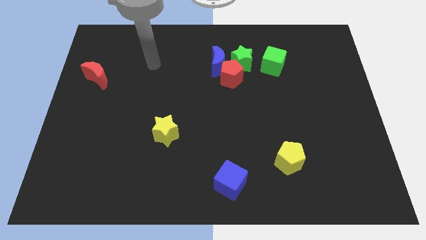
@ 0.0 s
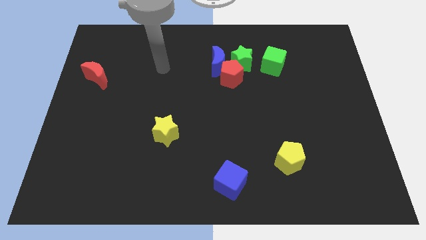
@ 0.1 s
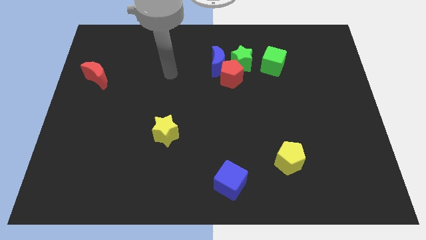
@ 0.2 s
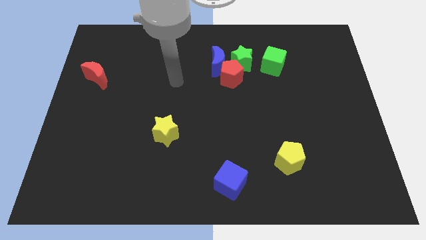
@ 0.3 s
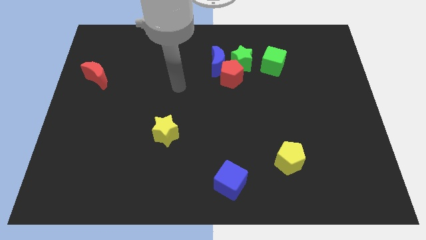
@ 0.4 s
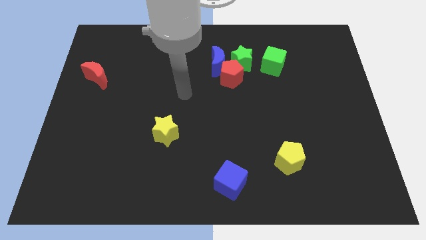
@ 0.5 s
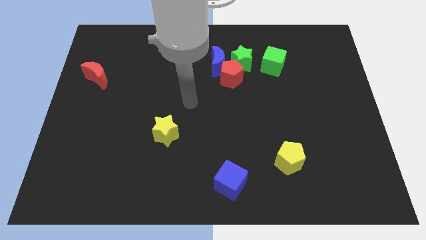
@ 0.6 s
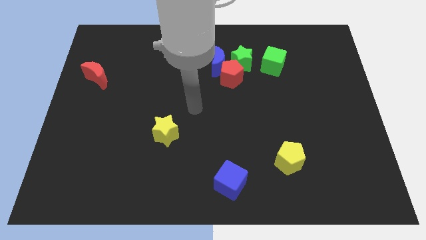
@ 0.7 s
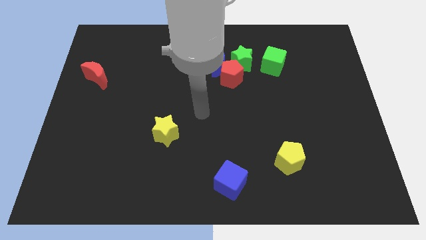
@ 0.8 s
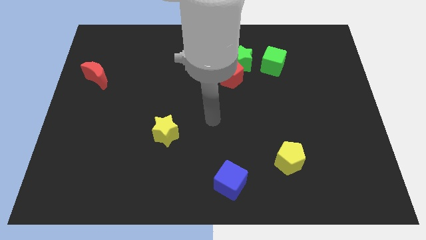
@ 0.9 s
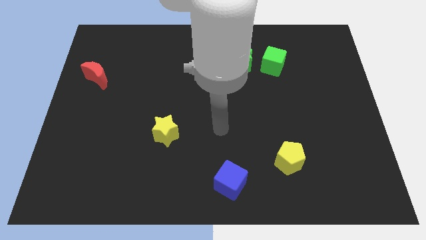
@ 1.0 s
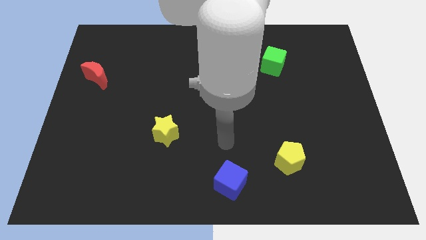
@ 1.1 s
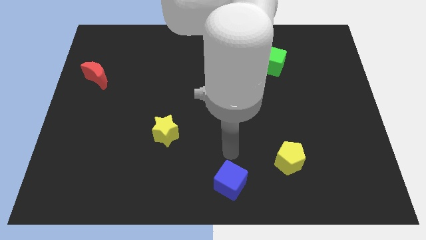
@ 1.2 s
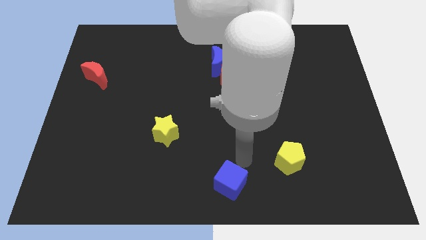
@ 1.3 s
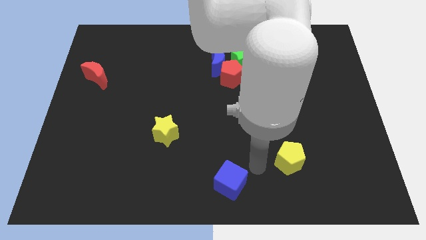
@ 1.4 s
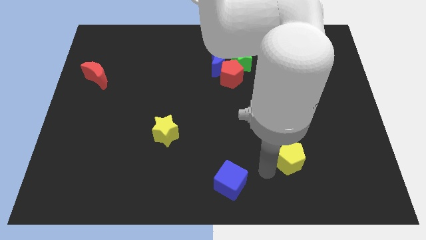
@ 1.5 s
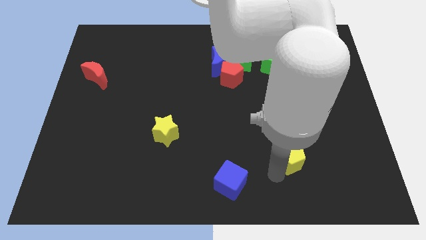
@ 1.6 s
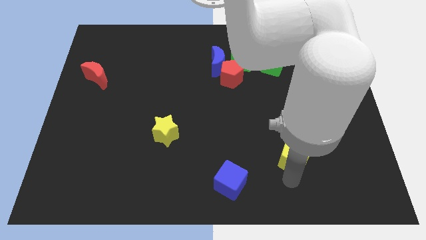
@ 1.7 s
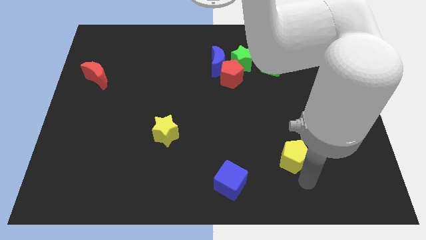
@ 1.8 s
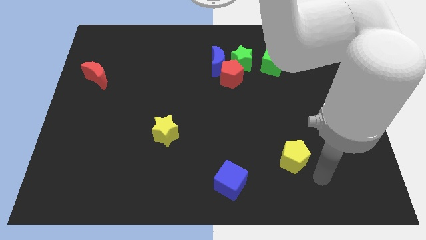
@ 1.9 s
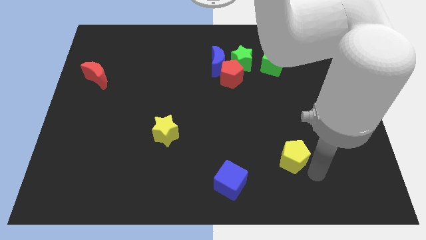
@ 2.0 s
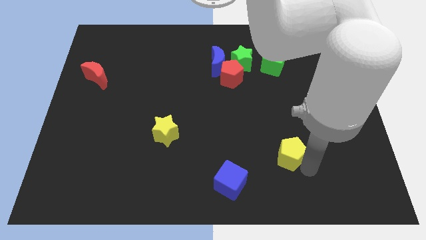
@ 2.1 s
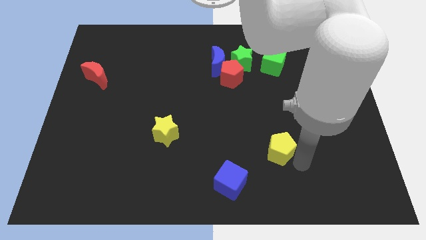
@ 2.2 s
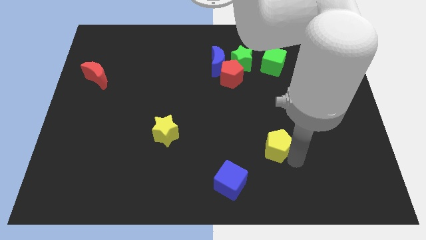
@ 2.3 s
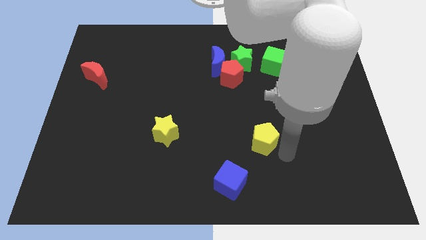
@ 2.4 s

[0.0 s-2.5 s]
slide the yellow pentagon a little diagonally upwards and left

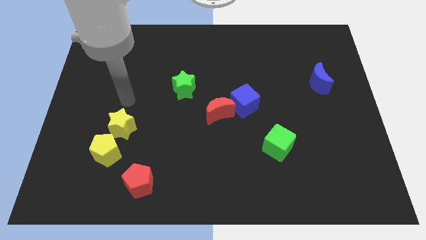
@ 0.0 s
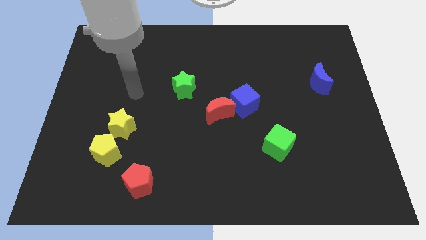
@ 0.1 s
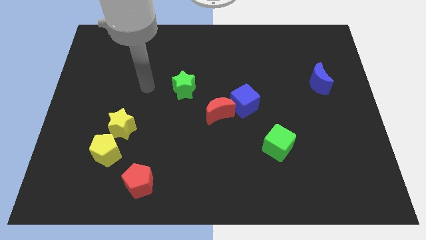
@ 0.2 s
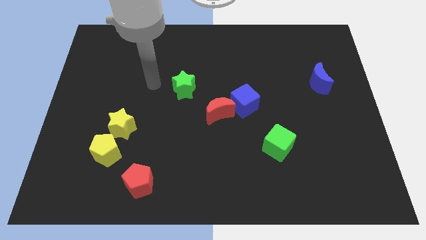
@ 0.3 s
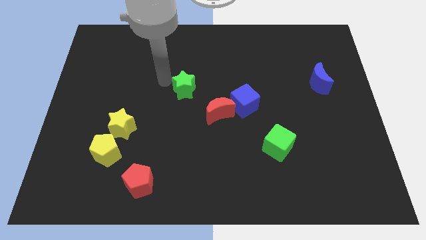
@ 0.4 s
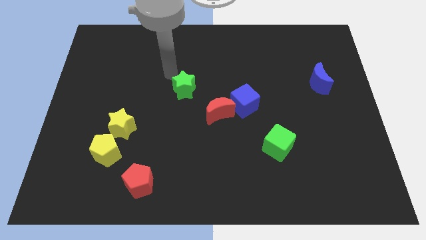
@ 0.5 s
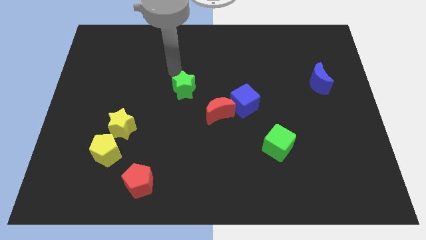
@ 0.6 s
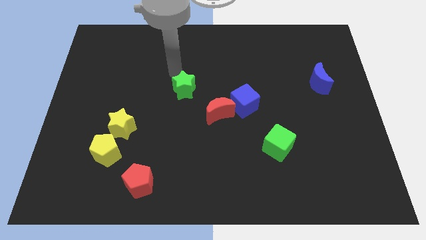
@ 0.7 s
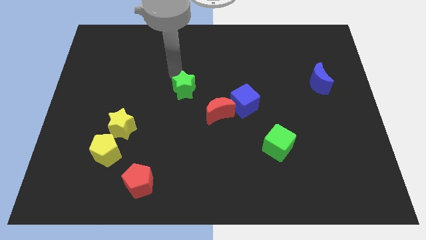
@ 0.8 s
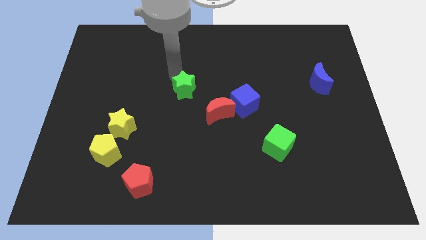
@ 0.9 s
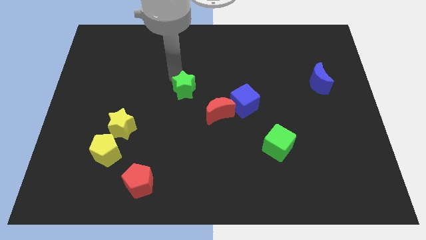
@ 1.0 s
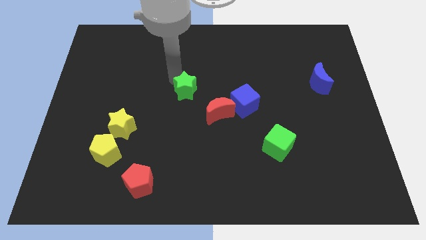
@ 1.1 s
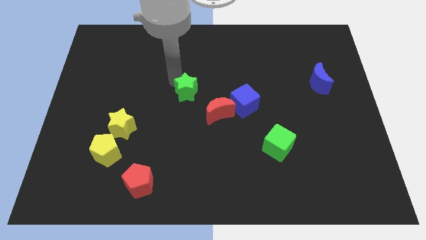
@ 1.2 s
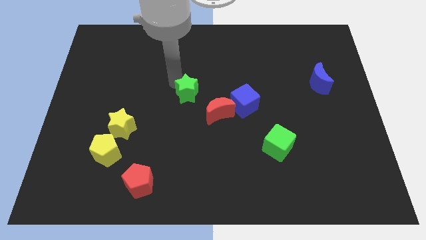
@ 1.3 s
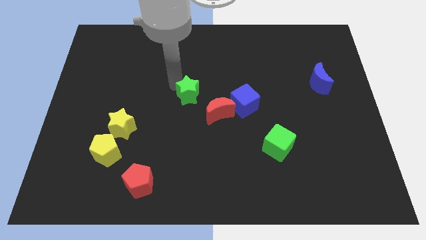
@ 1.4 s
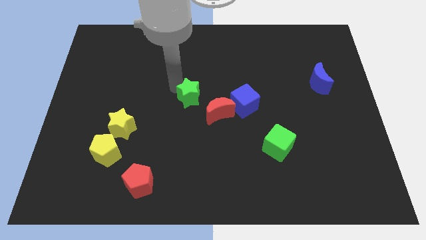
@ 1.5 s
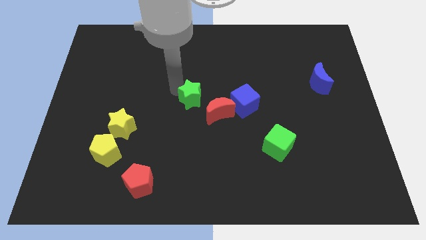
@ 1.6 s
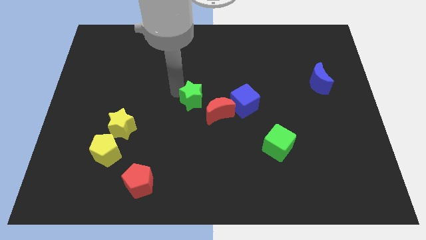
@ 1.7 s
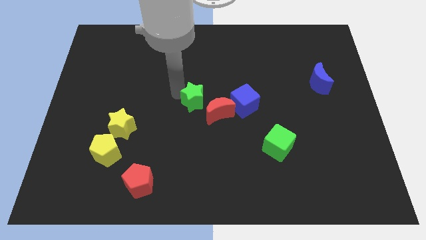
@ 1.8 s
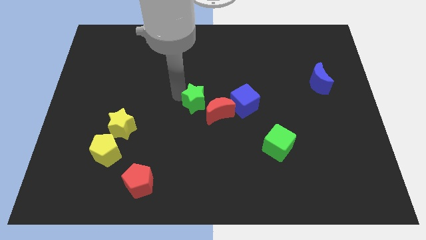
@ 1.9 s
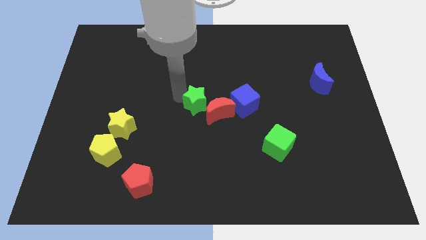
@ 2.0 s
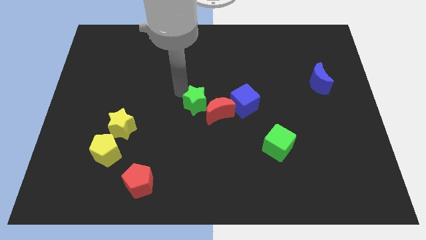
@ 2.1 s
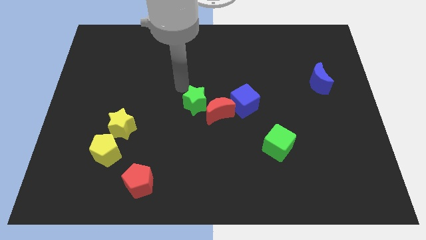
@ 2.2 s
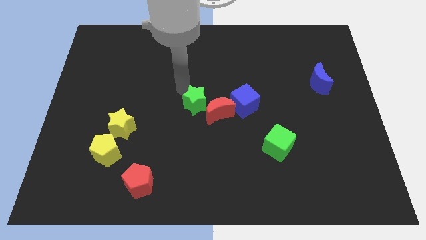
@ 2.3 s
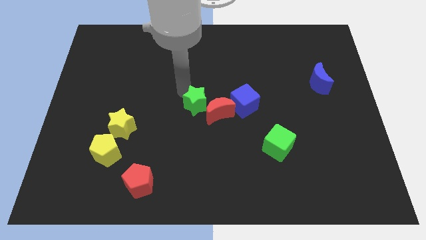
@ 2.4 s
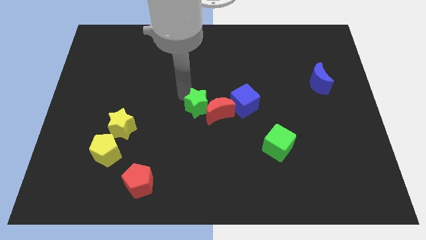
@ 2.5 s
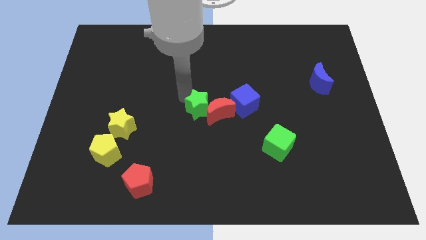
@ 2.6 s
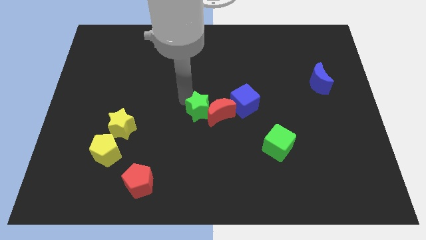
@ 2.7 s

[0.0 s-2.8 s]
push the green star a little downwards and to the right

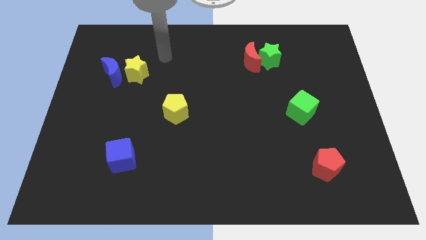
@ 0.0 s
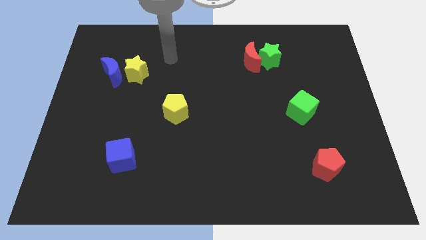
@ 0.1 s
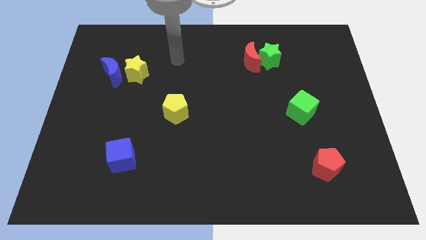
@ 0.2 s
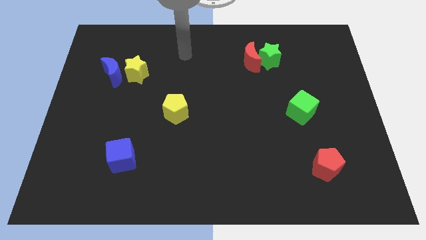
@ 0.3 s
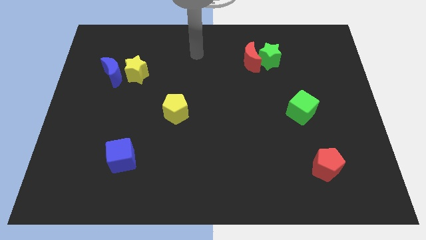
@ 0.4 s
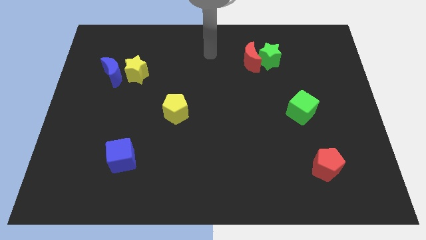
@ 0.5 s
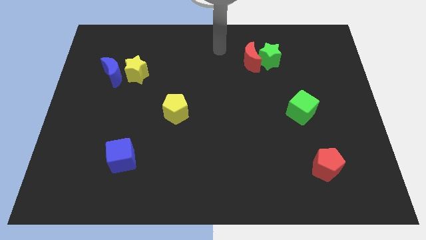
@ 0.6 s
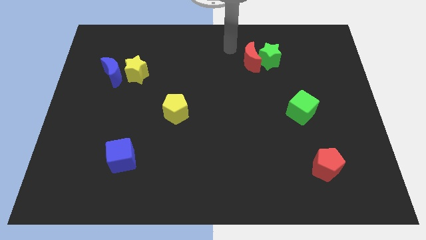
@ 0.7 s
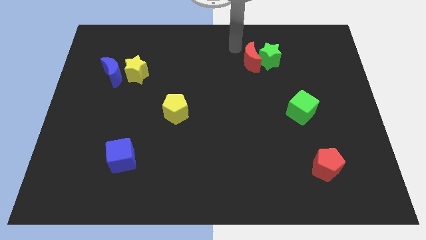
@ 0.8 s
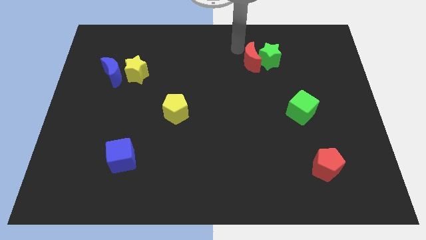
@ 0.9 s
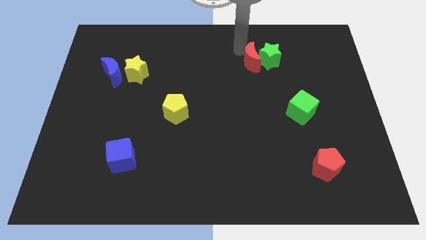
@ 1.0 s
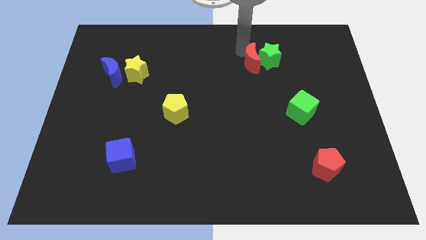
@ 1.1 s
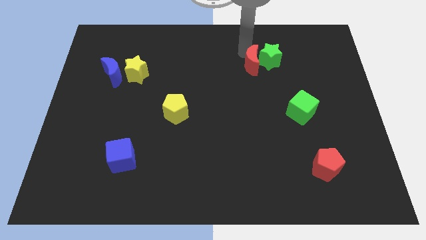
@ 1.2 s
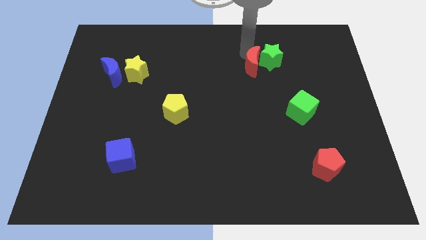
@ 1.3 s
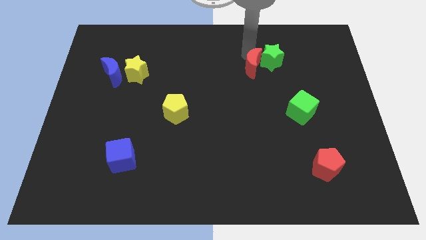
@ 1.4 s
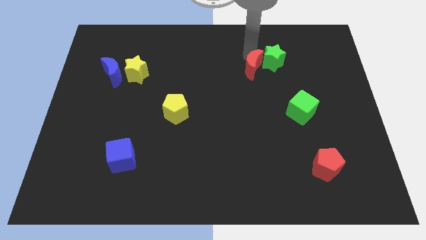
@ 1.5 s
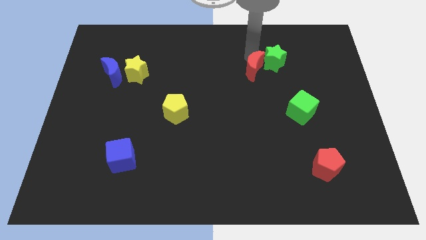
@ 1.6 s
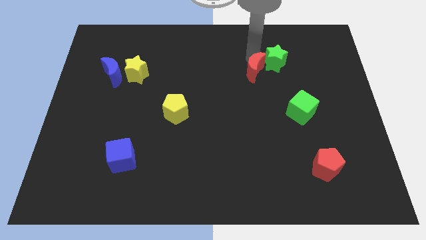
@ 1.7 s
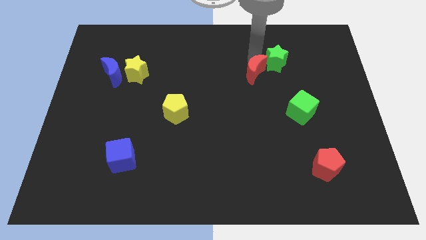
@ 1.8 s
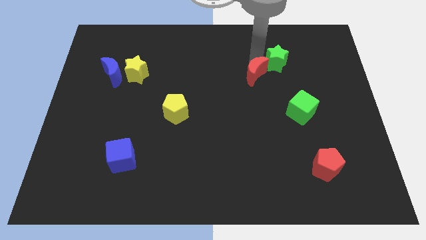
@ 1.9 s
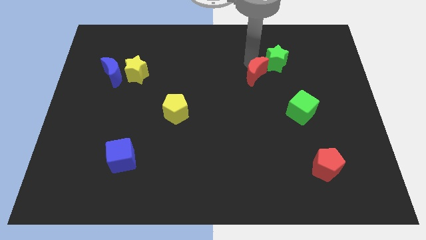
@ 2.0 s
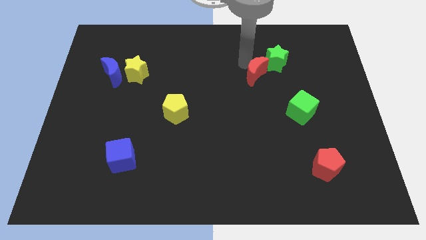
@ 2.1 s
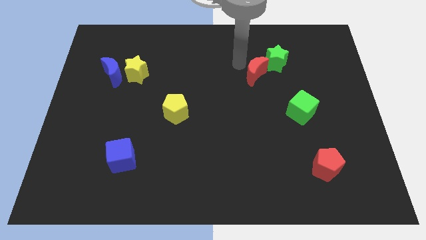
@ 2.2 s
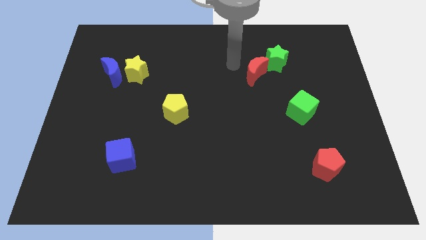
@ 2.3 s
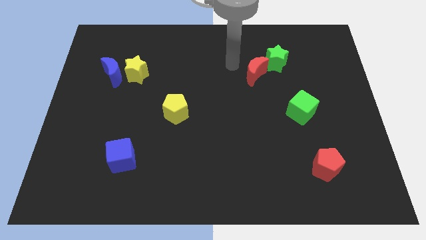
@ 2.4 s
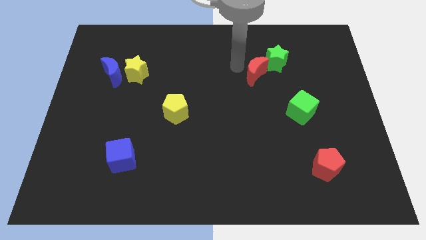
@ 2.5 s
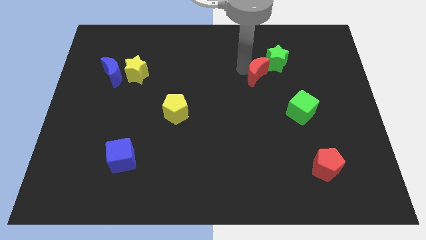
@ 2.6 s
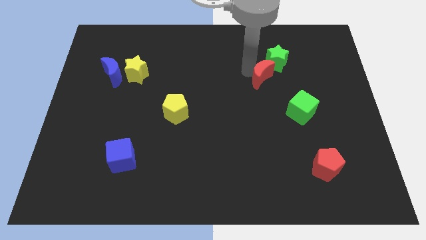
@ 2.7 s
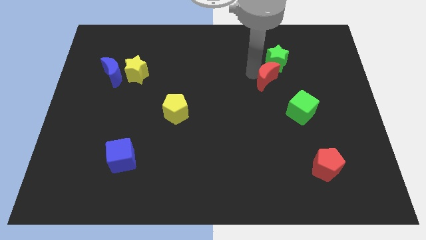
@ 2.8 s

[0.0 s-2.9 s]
slightly push the red moon diagonally down and right
